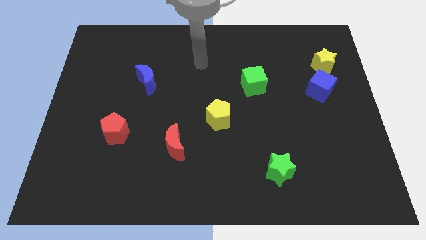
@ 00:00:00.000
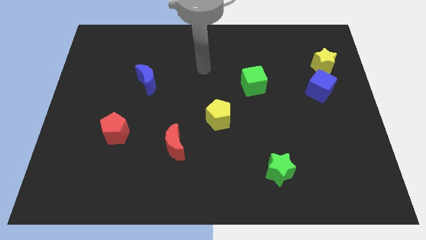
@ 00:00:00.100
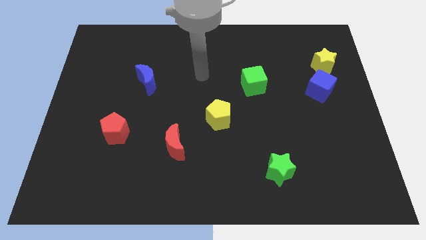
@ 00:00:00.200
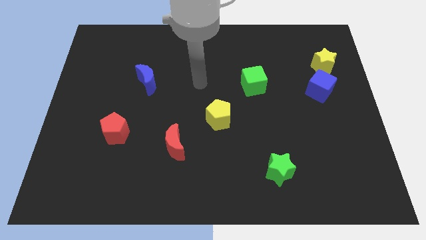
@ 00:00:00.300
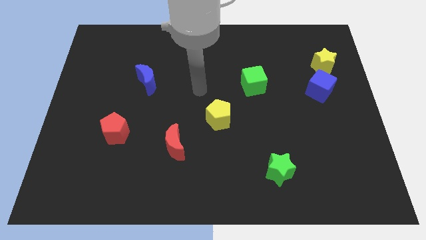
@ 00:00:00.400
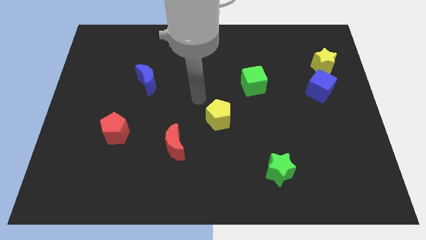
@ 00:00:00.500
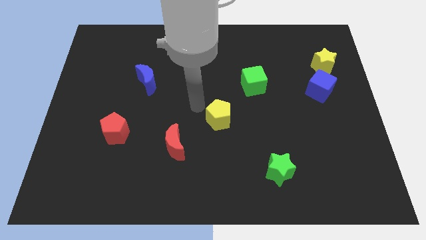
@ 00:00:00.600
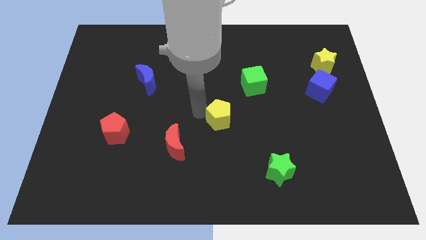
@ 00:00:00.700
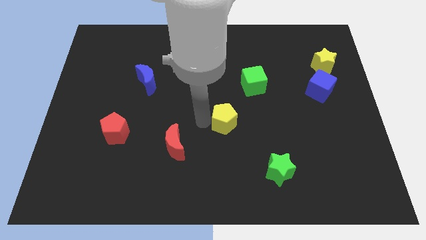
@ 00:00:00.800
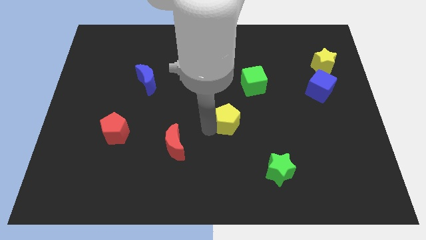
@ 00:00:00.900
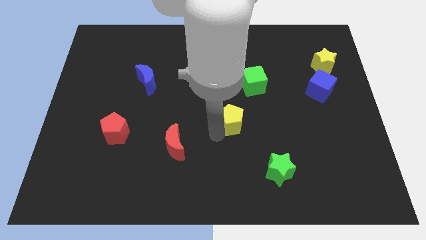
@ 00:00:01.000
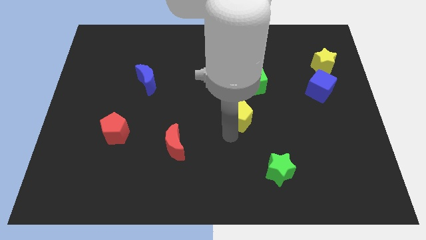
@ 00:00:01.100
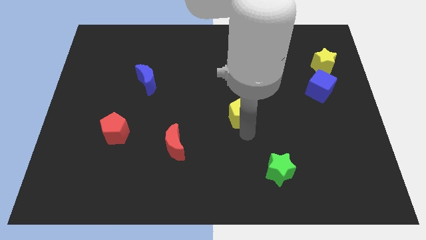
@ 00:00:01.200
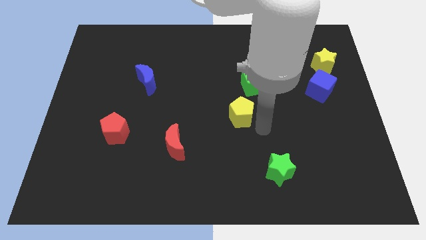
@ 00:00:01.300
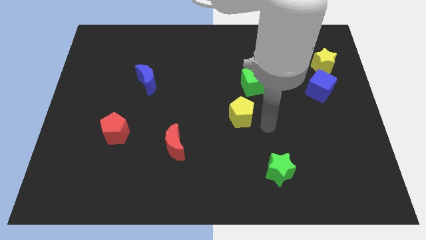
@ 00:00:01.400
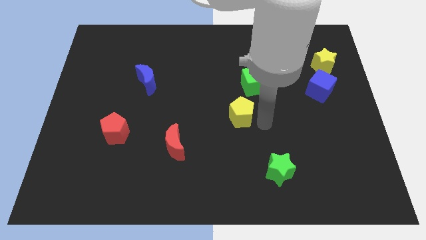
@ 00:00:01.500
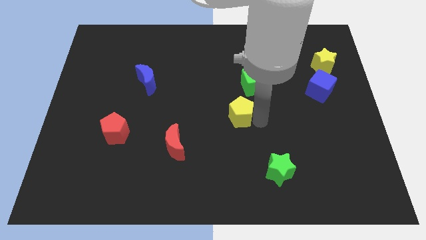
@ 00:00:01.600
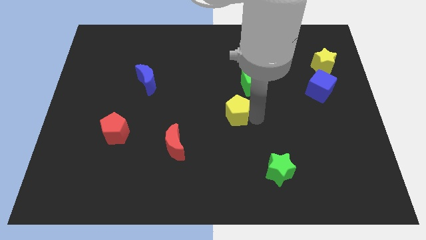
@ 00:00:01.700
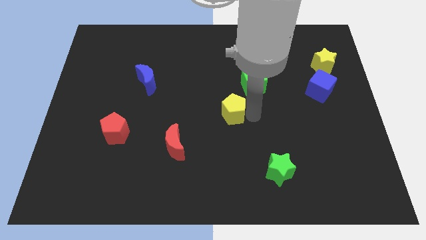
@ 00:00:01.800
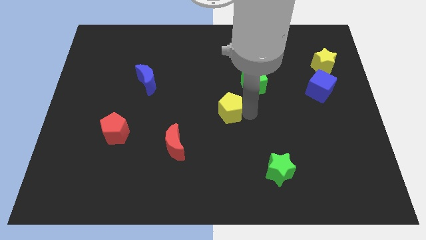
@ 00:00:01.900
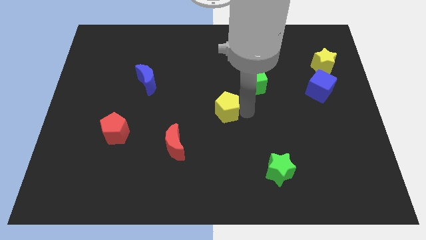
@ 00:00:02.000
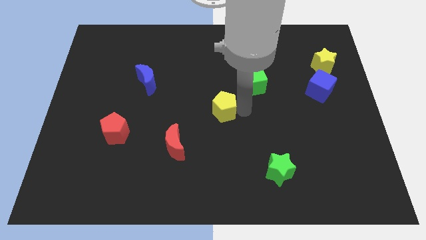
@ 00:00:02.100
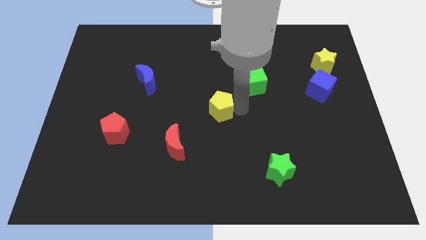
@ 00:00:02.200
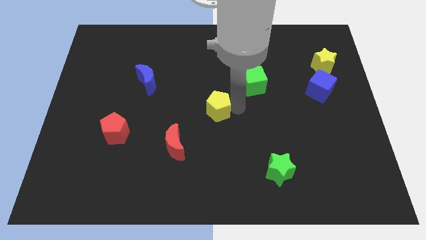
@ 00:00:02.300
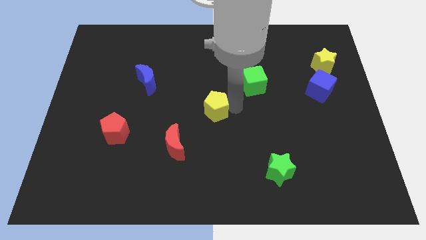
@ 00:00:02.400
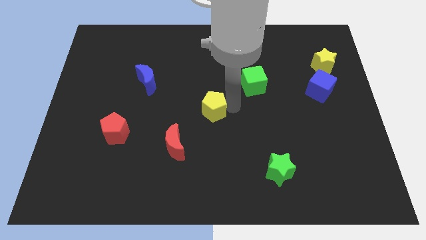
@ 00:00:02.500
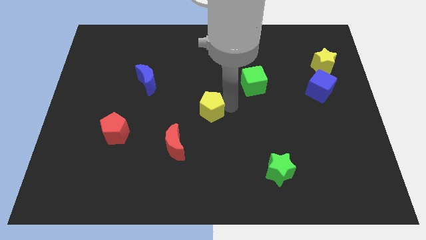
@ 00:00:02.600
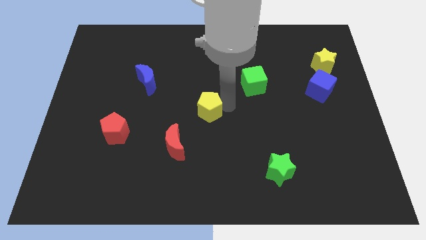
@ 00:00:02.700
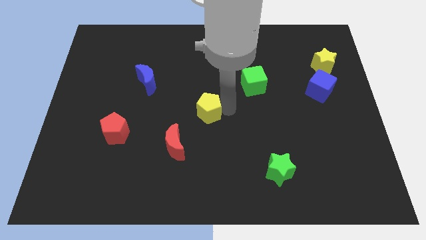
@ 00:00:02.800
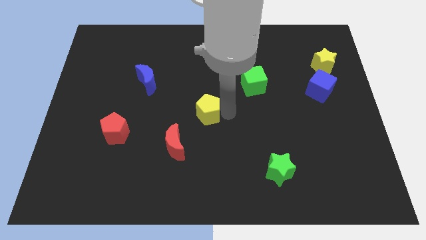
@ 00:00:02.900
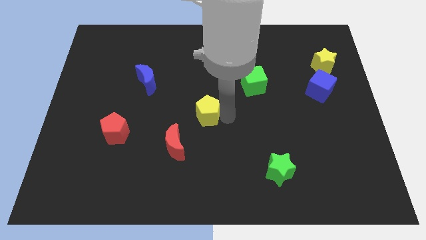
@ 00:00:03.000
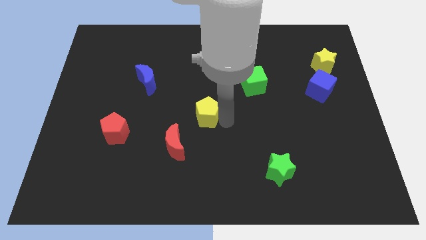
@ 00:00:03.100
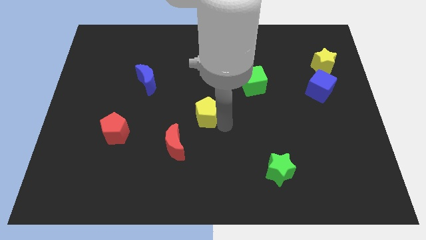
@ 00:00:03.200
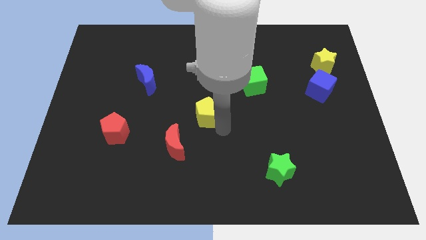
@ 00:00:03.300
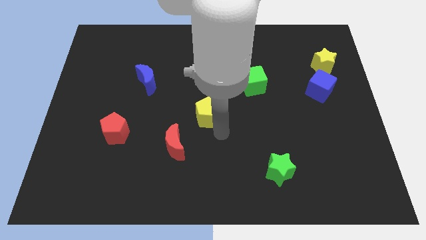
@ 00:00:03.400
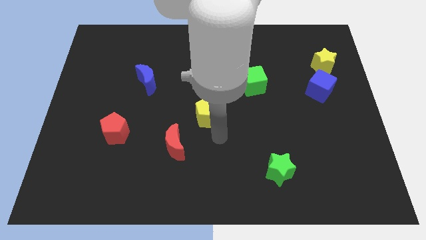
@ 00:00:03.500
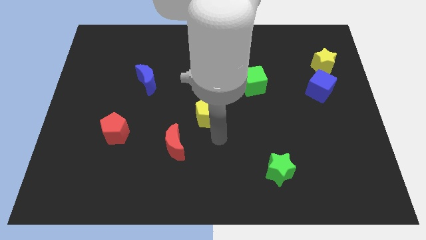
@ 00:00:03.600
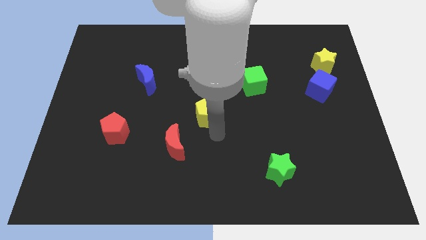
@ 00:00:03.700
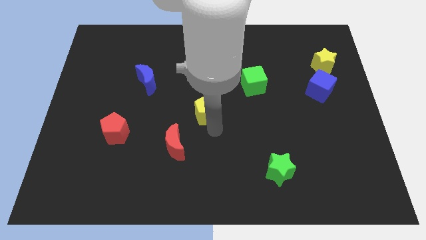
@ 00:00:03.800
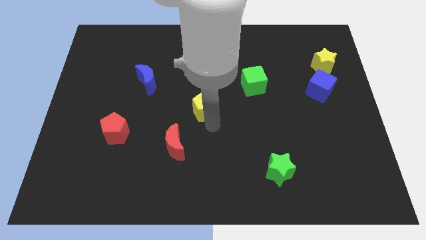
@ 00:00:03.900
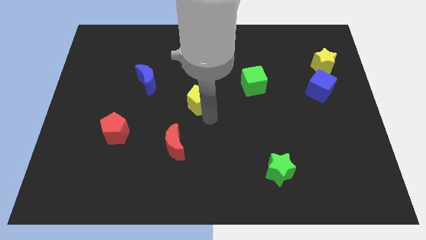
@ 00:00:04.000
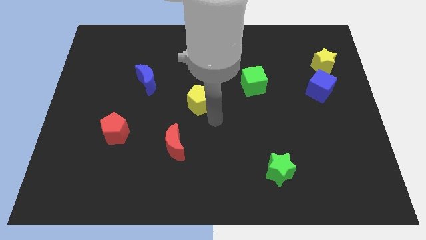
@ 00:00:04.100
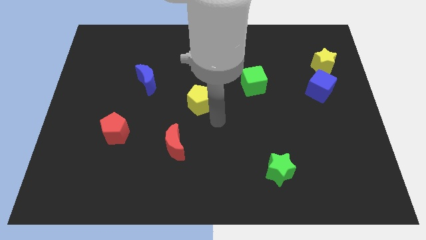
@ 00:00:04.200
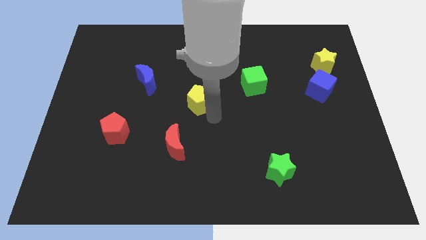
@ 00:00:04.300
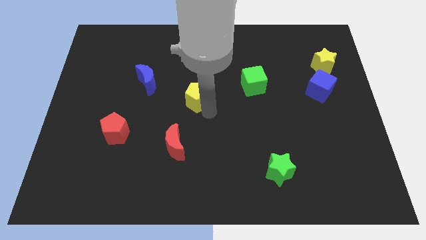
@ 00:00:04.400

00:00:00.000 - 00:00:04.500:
push the yellow pentagon up and left diagonally slightly

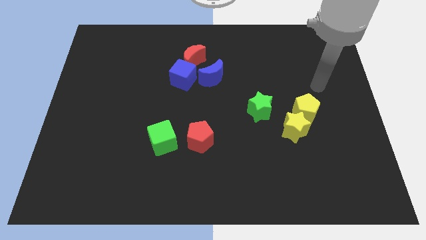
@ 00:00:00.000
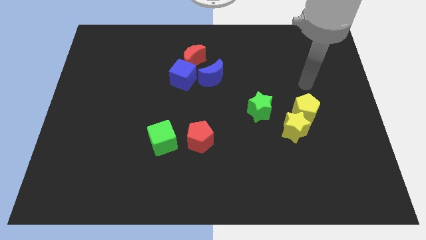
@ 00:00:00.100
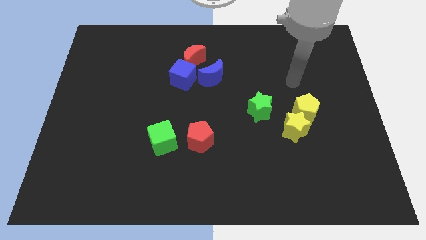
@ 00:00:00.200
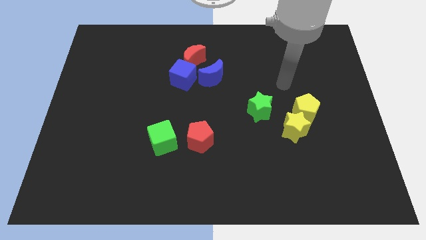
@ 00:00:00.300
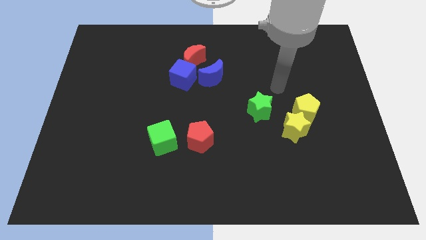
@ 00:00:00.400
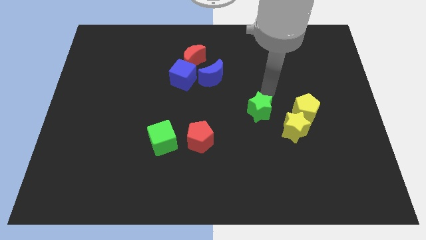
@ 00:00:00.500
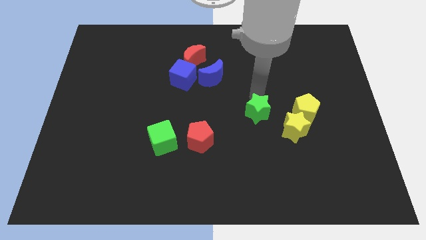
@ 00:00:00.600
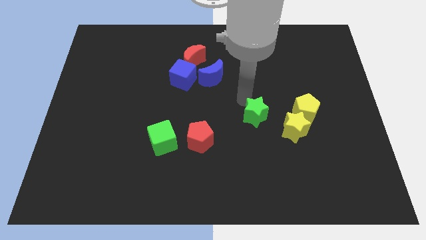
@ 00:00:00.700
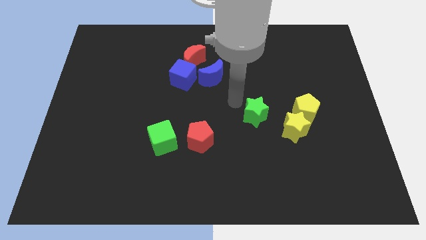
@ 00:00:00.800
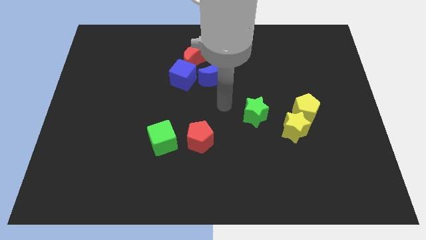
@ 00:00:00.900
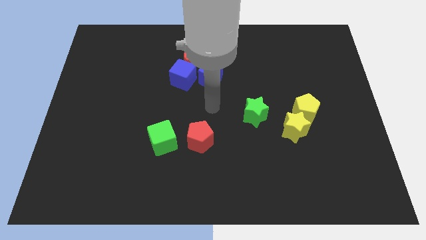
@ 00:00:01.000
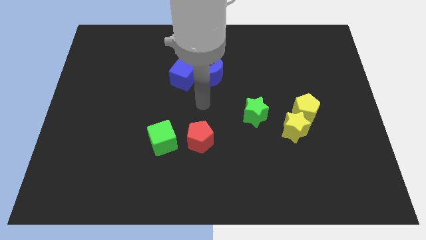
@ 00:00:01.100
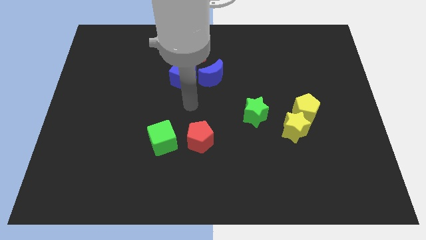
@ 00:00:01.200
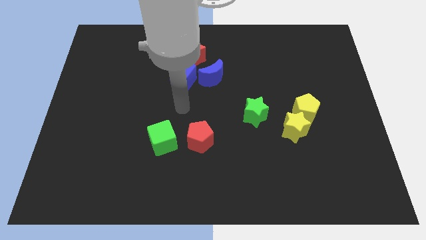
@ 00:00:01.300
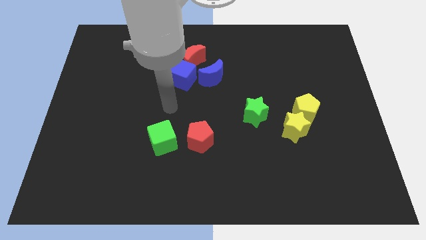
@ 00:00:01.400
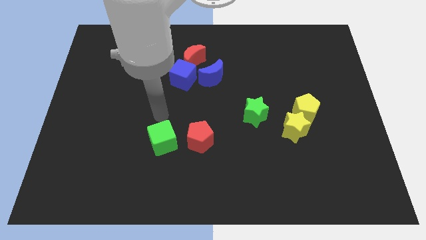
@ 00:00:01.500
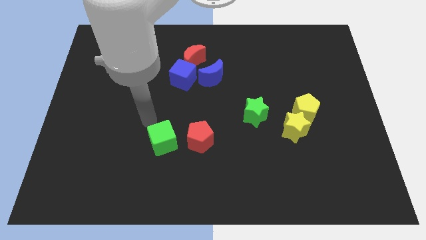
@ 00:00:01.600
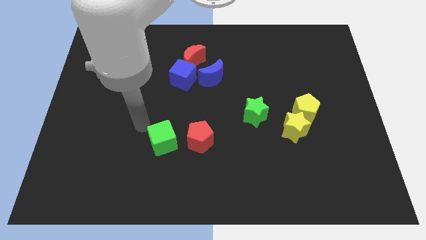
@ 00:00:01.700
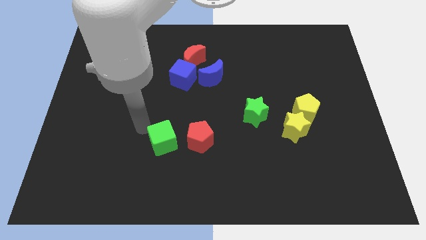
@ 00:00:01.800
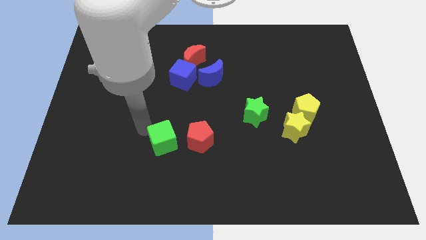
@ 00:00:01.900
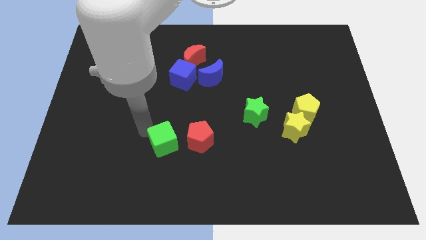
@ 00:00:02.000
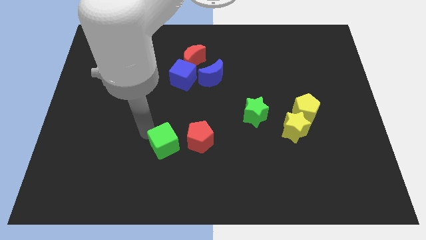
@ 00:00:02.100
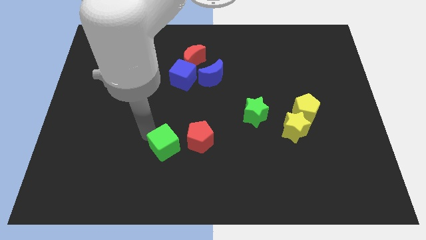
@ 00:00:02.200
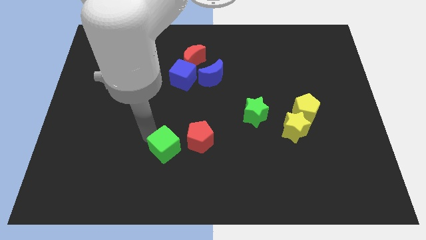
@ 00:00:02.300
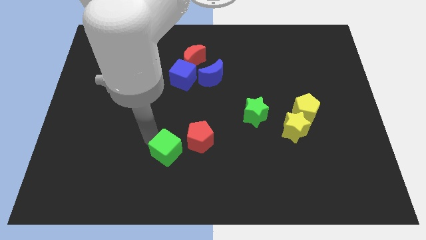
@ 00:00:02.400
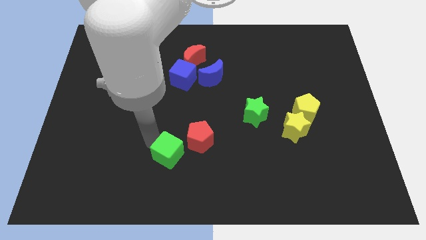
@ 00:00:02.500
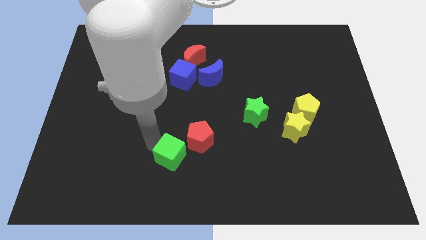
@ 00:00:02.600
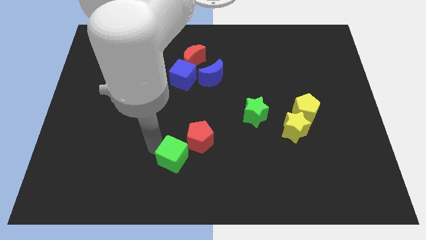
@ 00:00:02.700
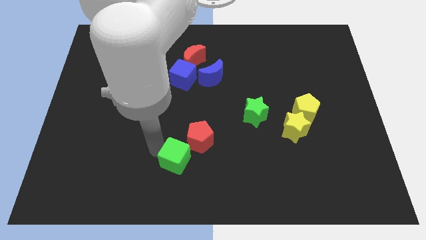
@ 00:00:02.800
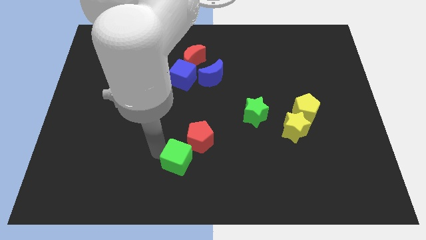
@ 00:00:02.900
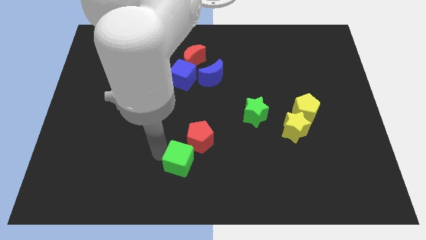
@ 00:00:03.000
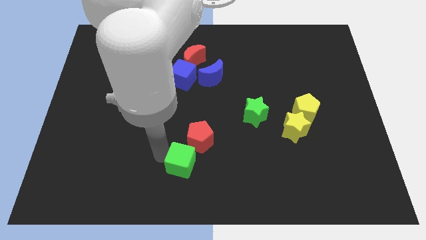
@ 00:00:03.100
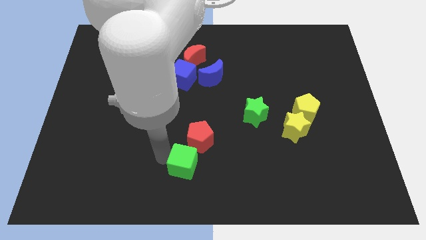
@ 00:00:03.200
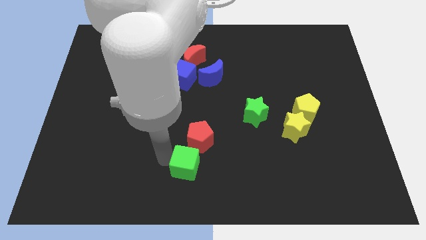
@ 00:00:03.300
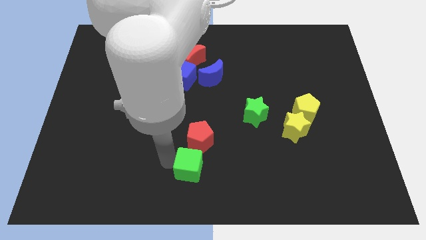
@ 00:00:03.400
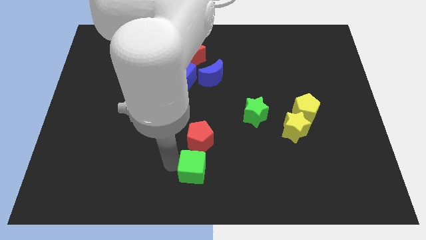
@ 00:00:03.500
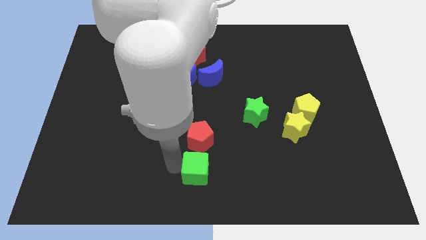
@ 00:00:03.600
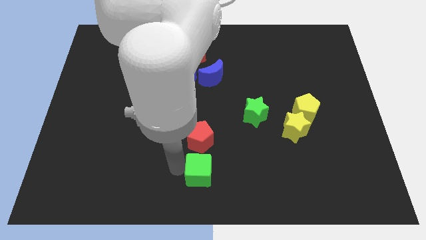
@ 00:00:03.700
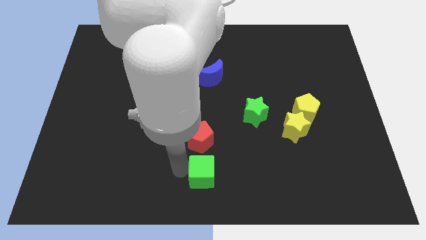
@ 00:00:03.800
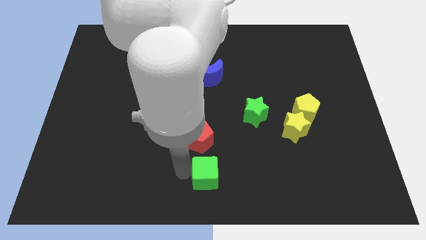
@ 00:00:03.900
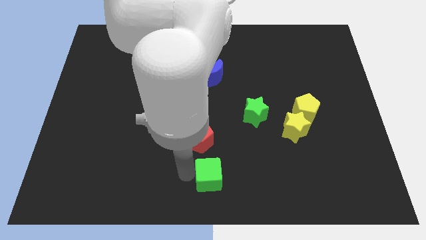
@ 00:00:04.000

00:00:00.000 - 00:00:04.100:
push the green cube to the right a bit
